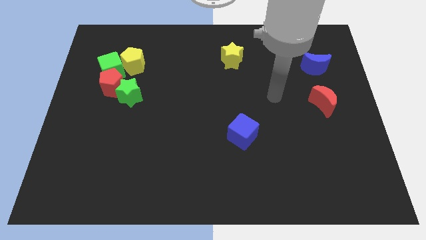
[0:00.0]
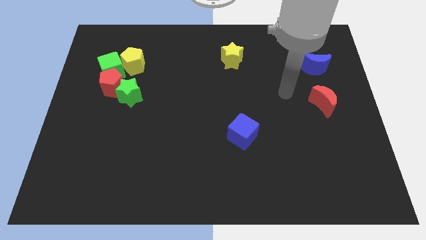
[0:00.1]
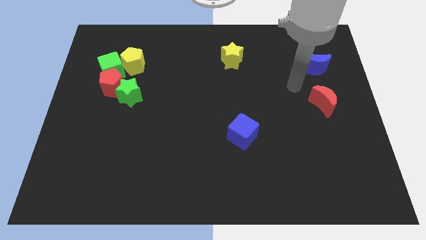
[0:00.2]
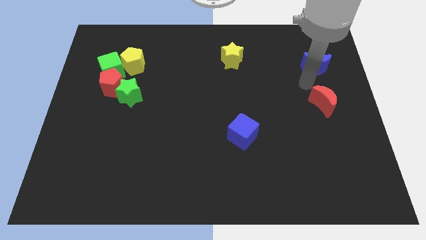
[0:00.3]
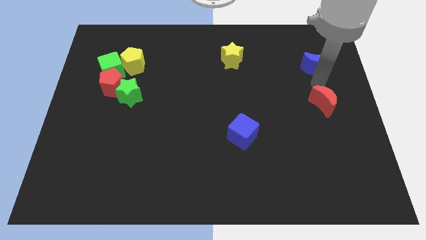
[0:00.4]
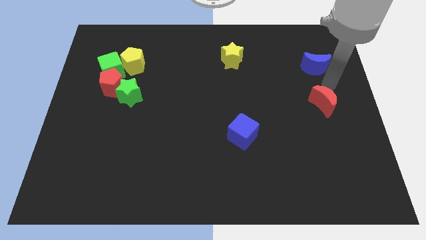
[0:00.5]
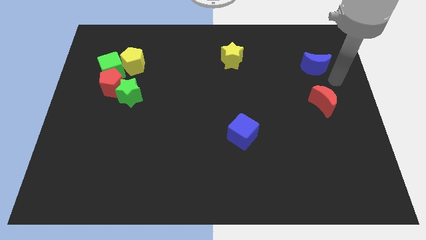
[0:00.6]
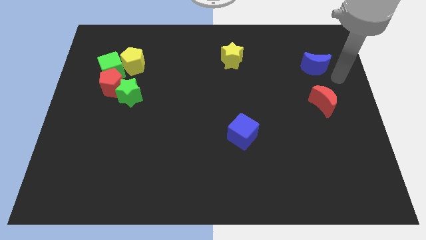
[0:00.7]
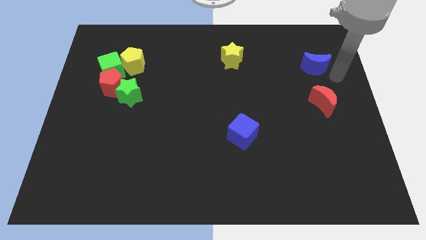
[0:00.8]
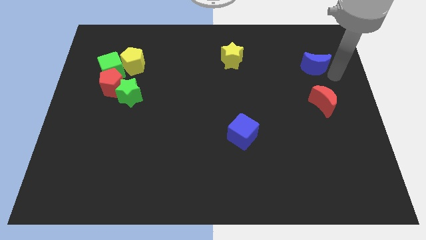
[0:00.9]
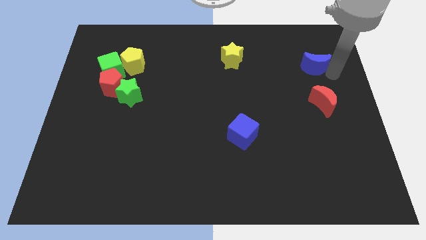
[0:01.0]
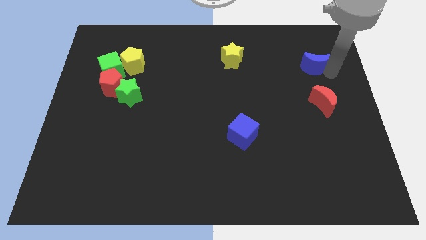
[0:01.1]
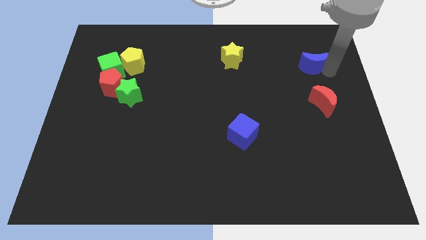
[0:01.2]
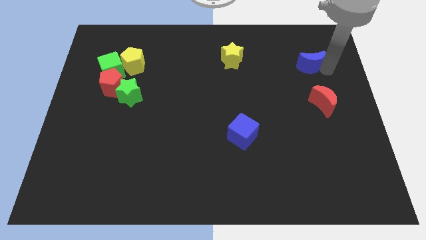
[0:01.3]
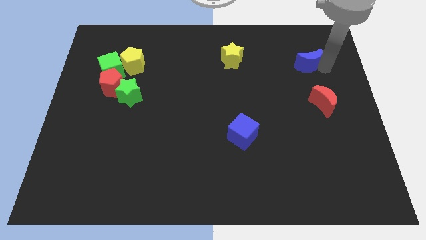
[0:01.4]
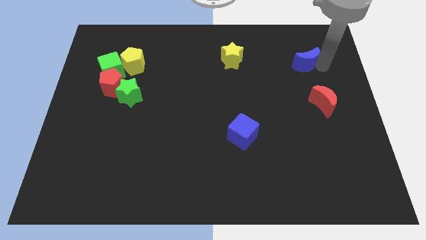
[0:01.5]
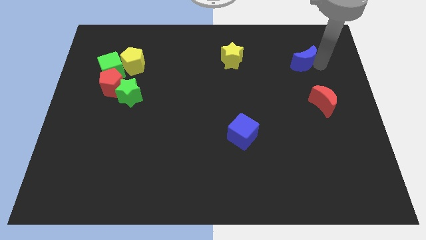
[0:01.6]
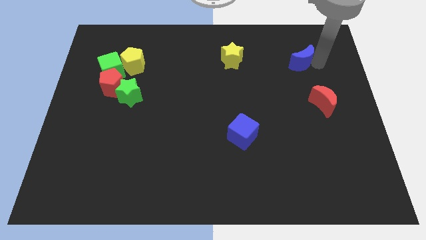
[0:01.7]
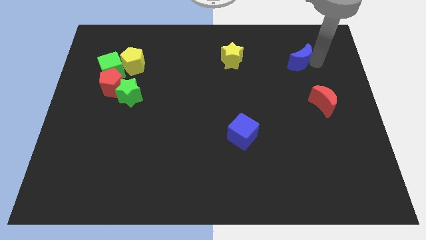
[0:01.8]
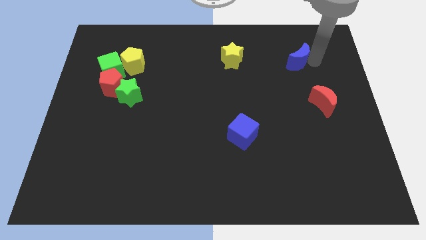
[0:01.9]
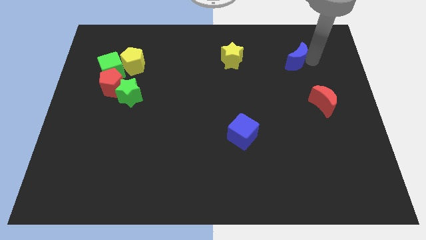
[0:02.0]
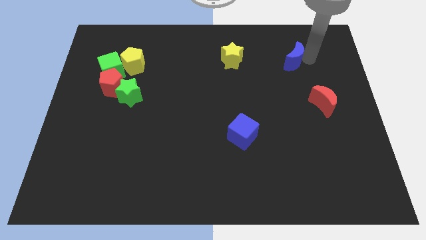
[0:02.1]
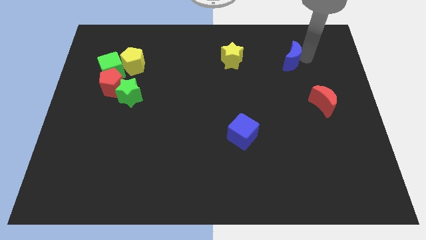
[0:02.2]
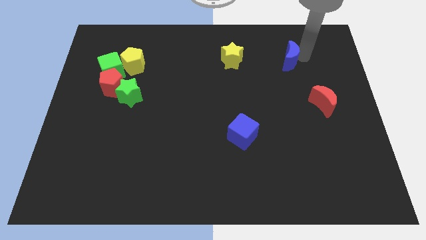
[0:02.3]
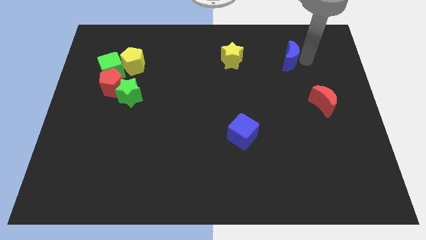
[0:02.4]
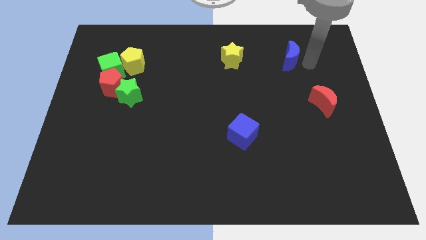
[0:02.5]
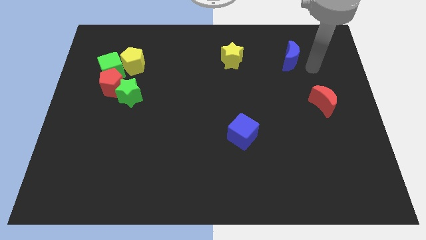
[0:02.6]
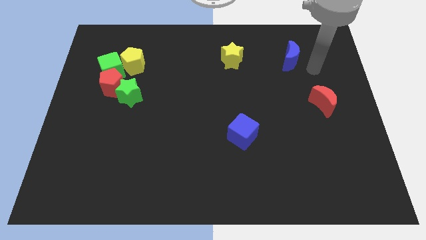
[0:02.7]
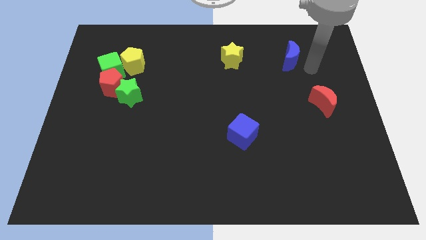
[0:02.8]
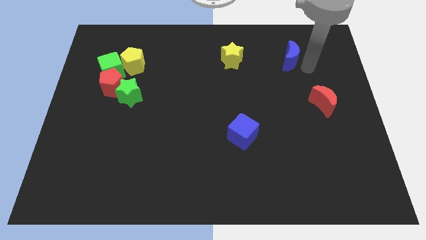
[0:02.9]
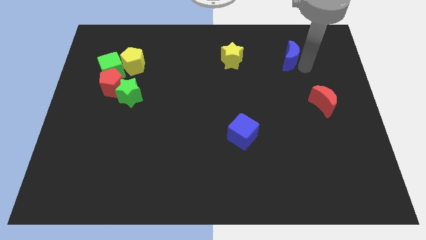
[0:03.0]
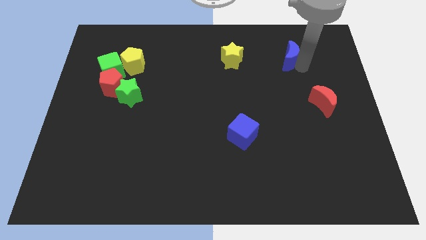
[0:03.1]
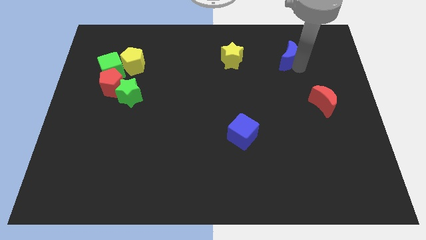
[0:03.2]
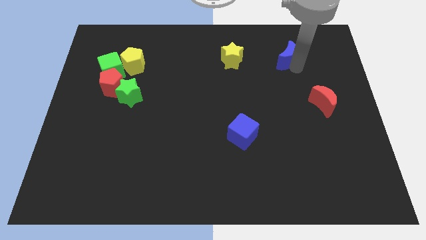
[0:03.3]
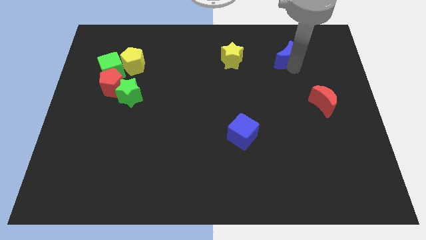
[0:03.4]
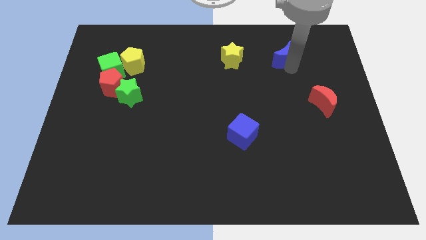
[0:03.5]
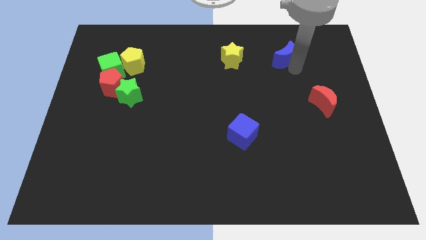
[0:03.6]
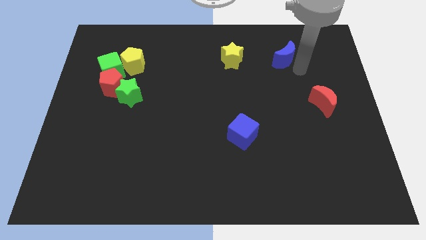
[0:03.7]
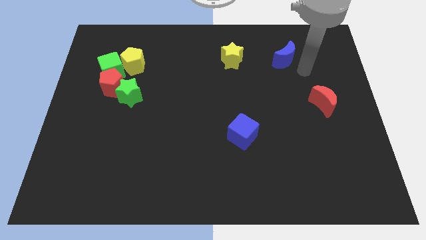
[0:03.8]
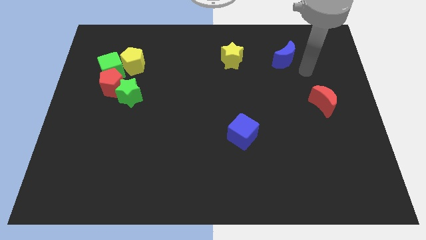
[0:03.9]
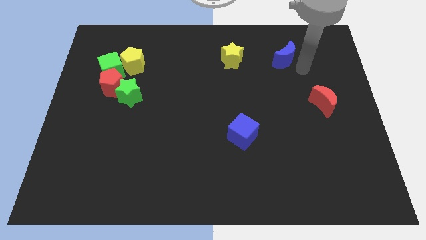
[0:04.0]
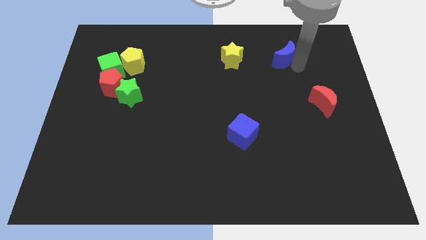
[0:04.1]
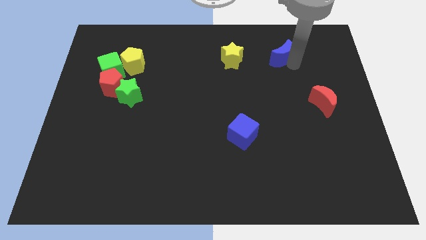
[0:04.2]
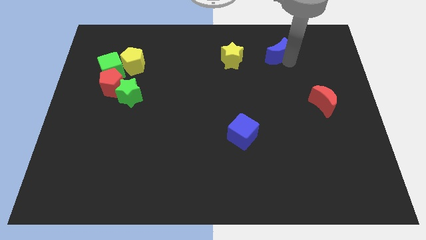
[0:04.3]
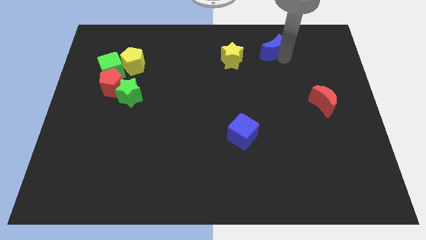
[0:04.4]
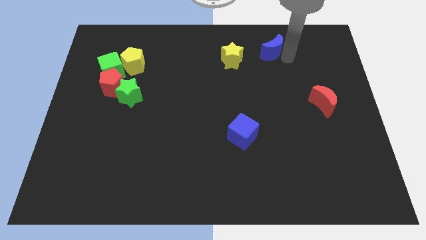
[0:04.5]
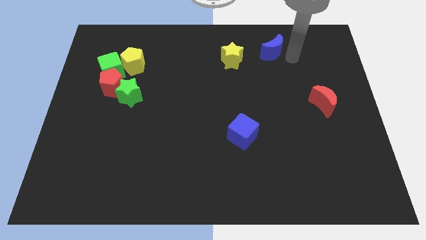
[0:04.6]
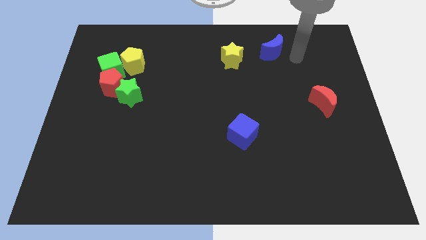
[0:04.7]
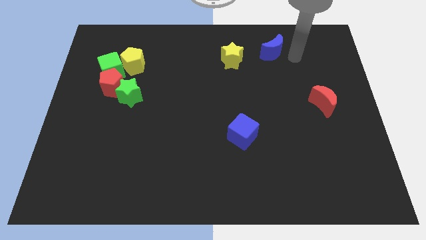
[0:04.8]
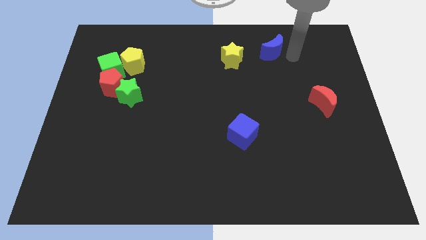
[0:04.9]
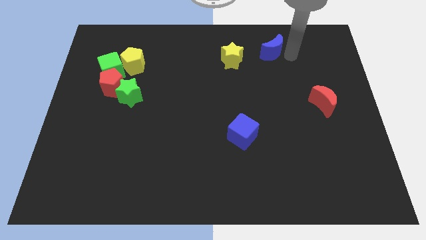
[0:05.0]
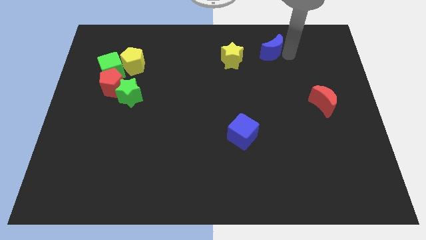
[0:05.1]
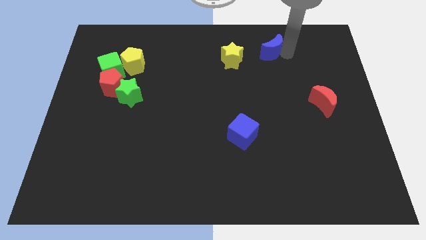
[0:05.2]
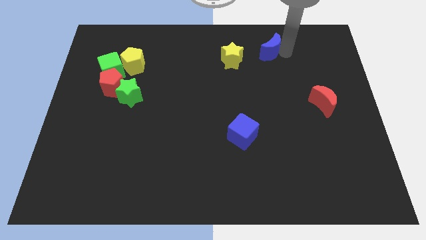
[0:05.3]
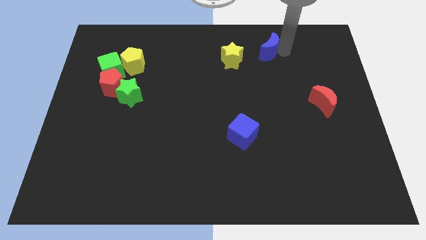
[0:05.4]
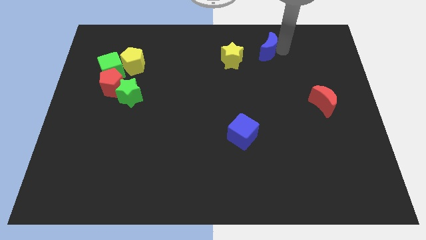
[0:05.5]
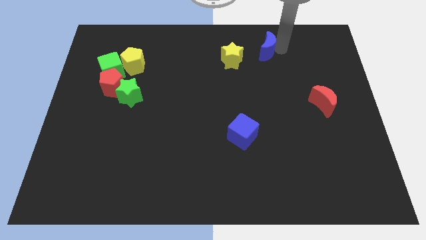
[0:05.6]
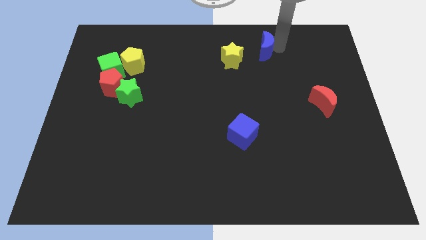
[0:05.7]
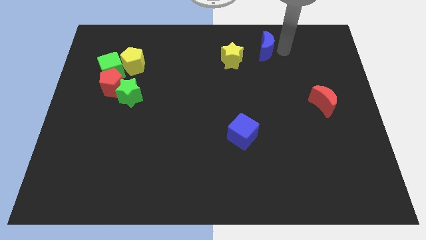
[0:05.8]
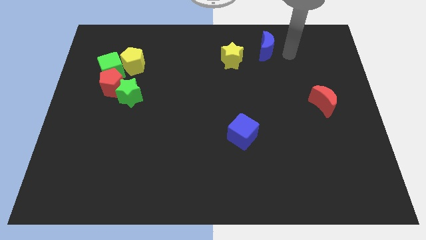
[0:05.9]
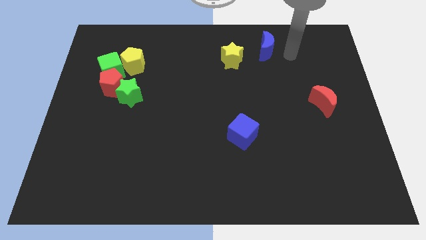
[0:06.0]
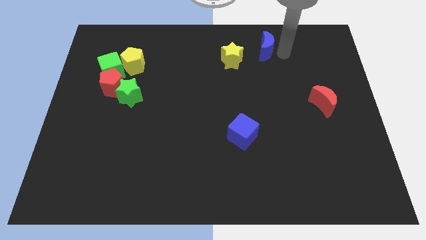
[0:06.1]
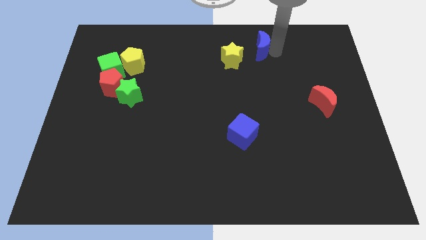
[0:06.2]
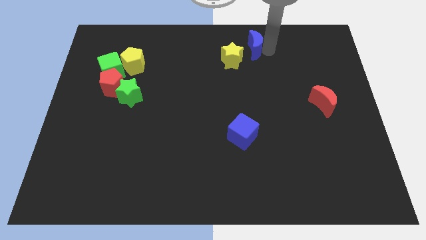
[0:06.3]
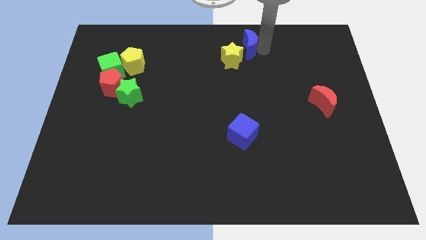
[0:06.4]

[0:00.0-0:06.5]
push the blue moon to the top
